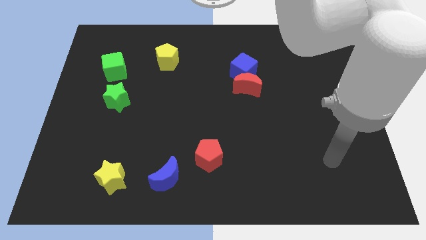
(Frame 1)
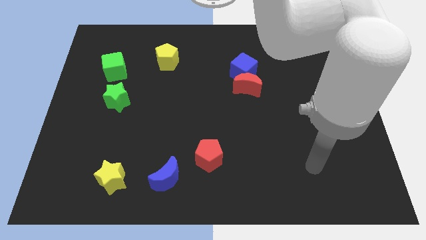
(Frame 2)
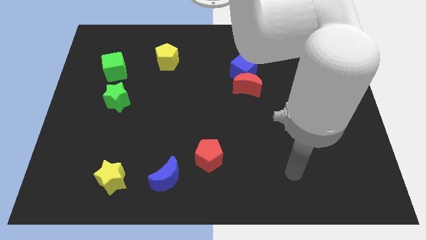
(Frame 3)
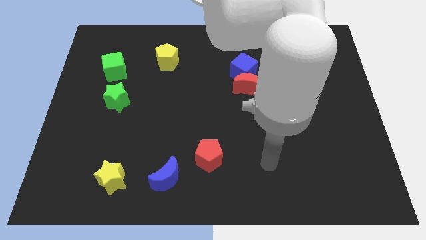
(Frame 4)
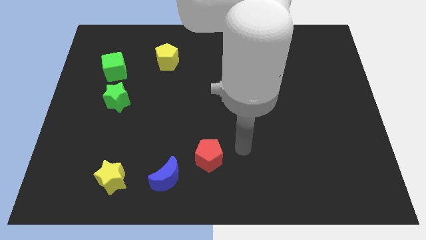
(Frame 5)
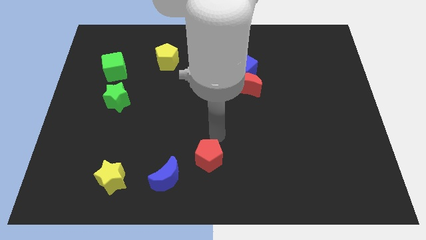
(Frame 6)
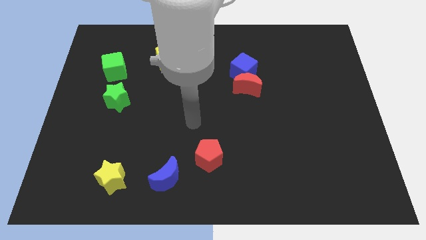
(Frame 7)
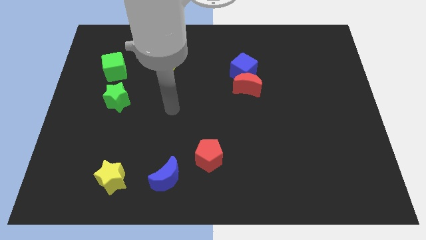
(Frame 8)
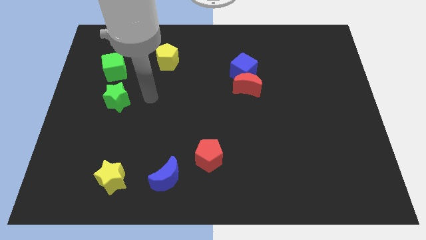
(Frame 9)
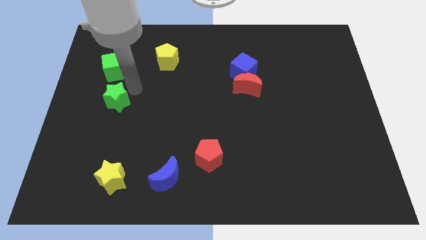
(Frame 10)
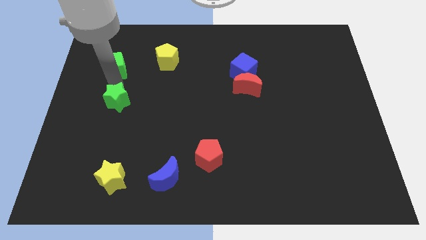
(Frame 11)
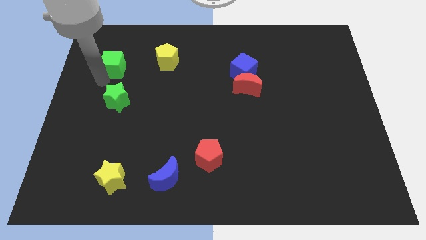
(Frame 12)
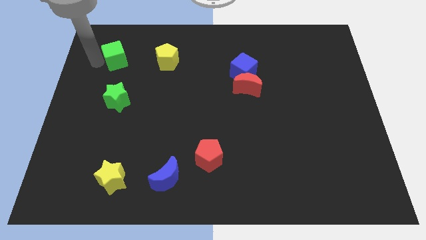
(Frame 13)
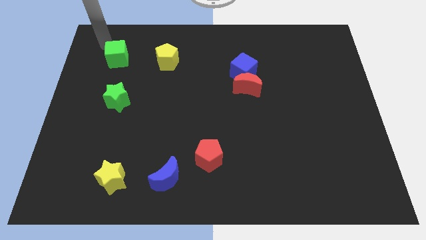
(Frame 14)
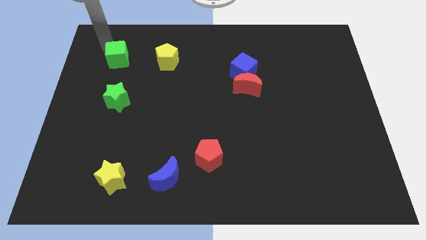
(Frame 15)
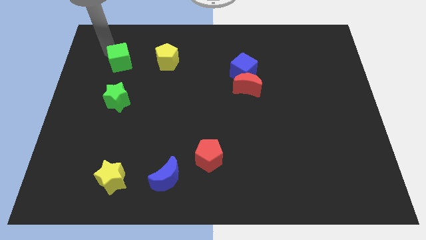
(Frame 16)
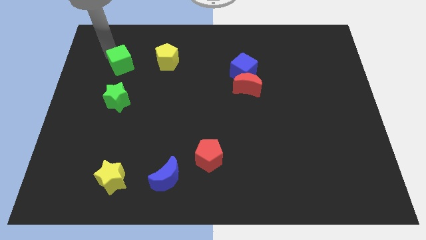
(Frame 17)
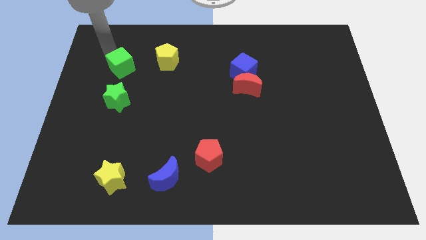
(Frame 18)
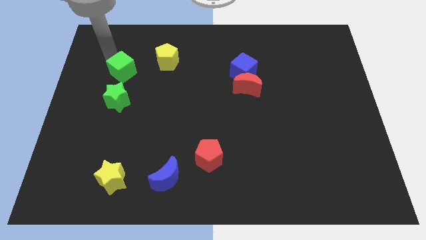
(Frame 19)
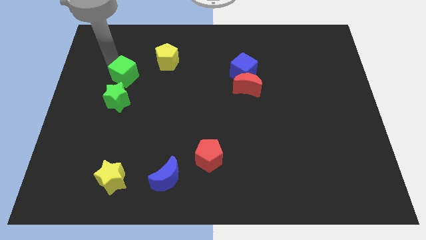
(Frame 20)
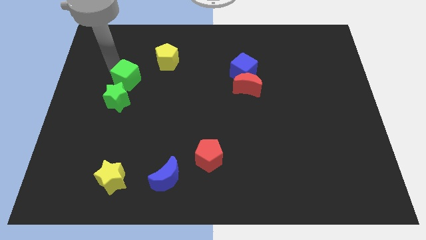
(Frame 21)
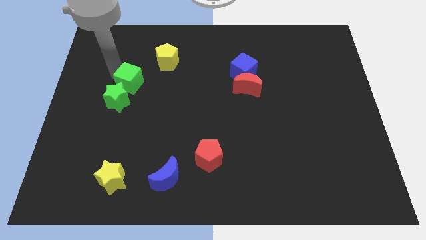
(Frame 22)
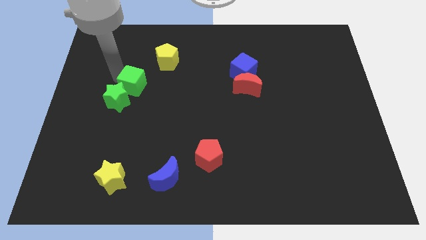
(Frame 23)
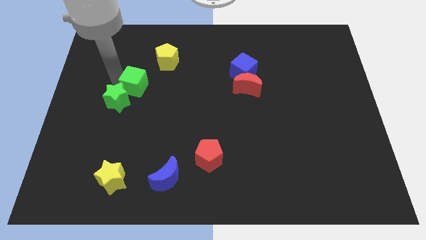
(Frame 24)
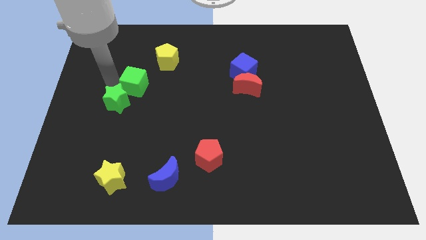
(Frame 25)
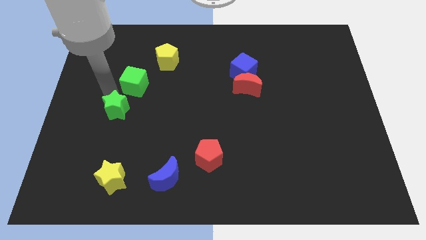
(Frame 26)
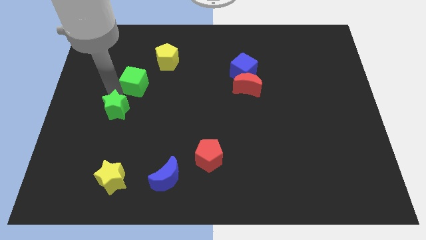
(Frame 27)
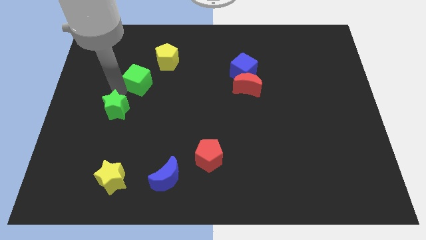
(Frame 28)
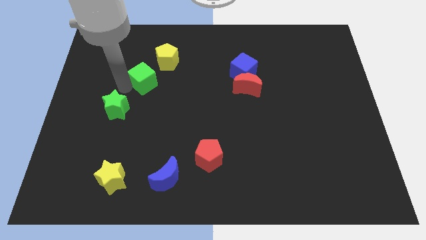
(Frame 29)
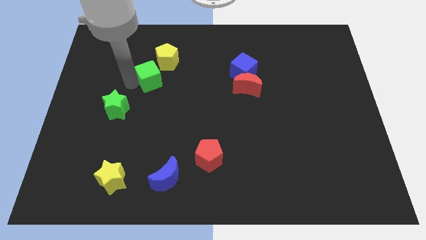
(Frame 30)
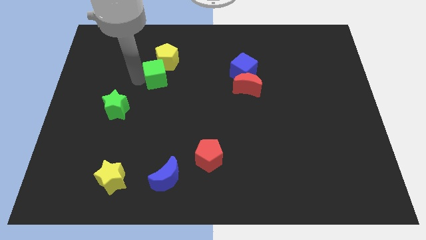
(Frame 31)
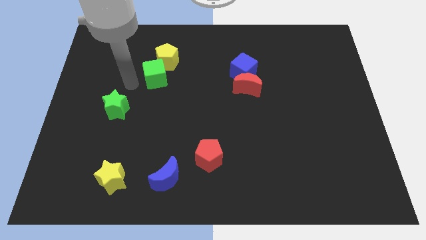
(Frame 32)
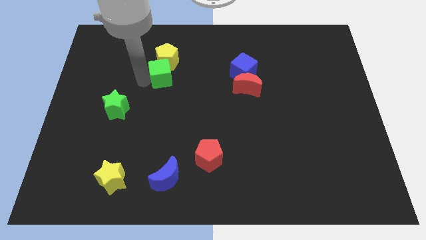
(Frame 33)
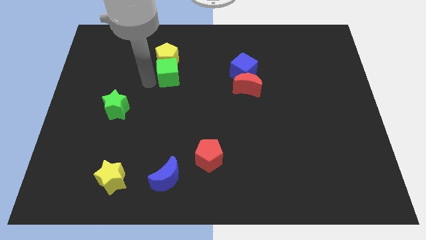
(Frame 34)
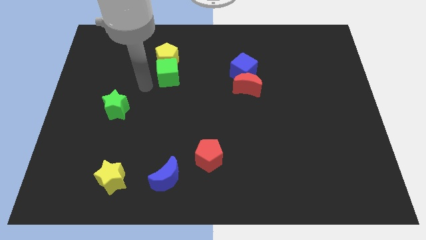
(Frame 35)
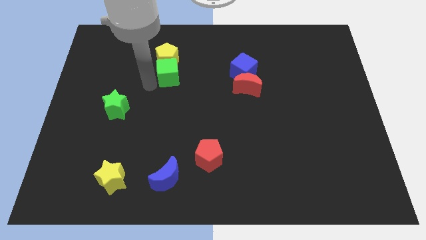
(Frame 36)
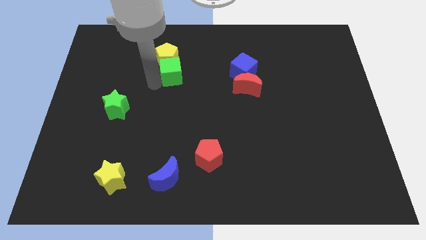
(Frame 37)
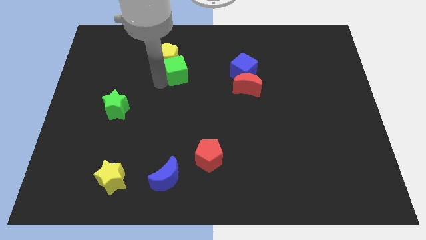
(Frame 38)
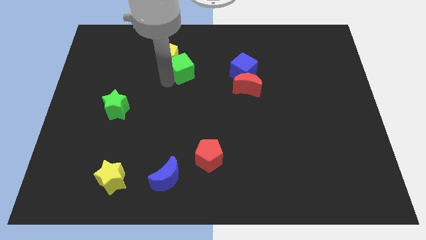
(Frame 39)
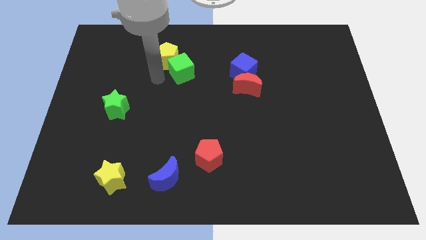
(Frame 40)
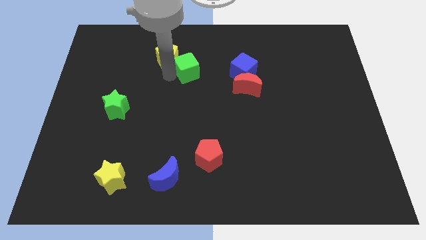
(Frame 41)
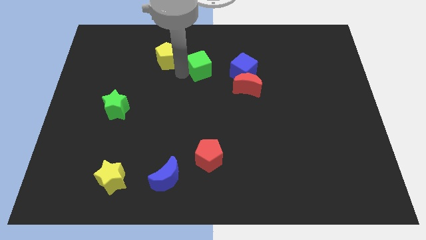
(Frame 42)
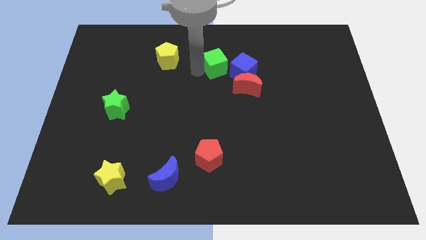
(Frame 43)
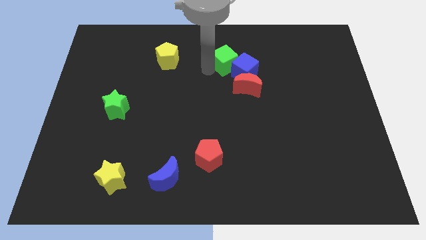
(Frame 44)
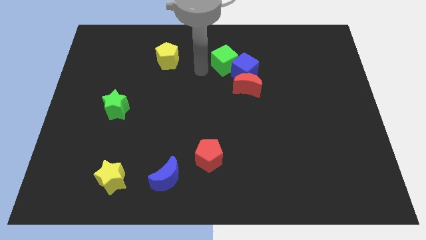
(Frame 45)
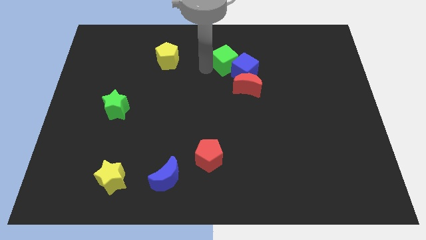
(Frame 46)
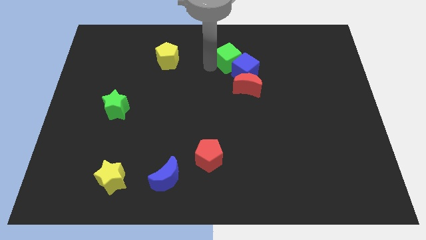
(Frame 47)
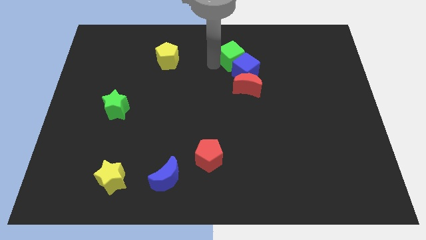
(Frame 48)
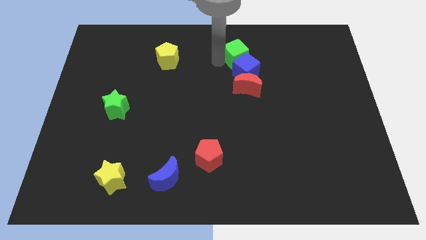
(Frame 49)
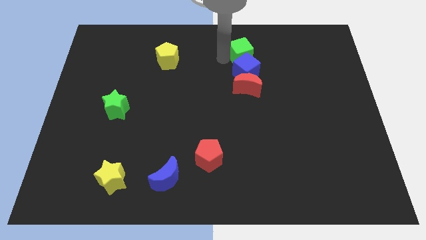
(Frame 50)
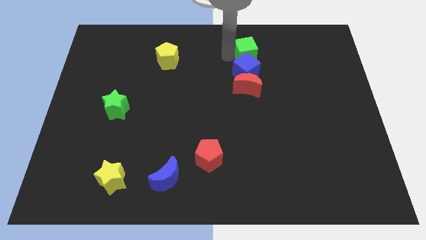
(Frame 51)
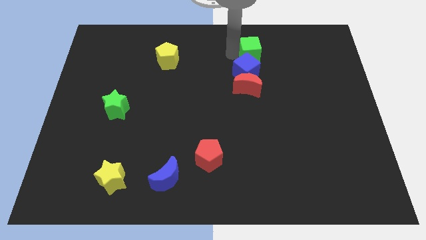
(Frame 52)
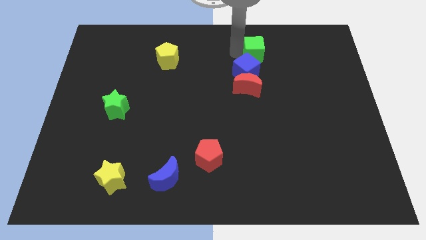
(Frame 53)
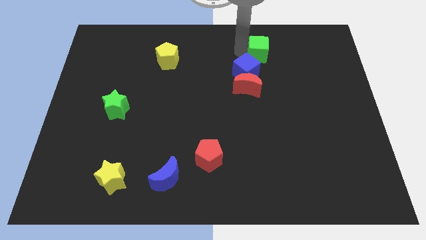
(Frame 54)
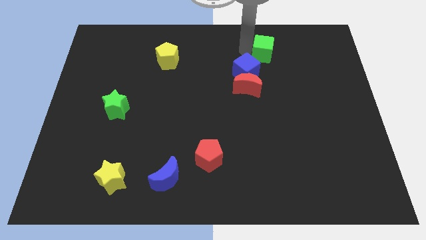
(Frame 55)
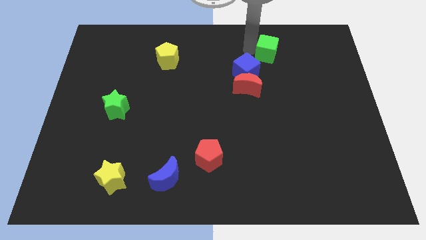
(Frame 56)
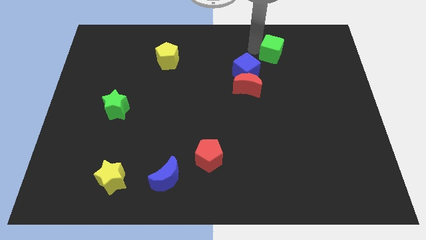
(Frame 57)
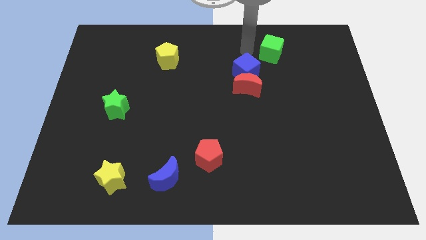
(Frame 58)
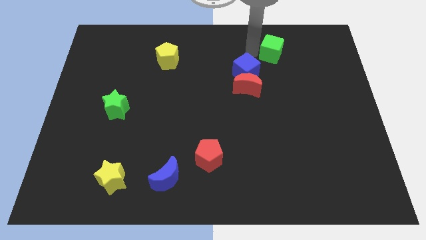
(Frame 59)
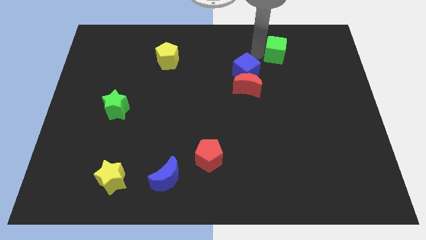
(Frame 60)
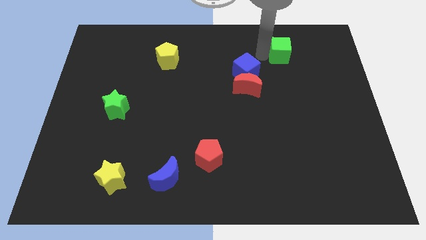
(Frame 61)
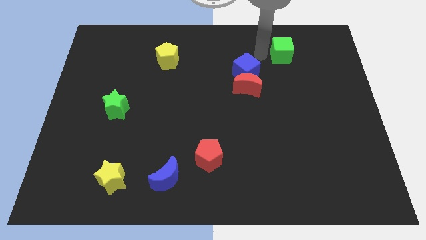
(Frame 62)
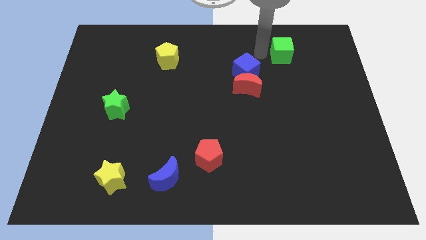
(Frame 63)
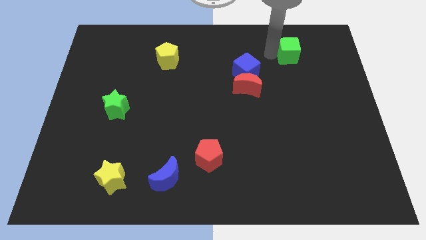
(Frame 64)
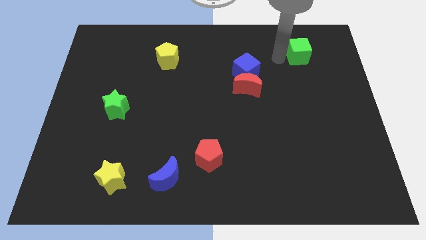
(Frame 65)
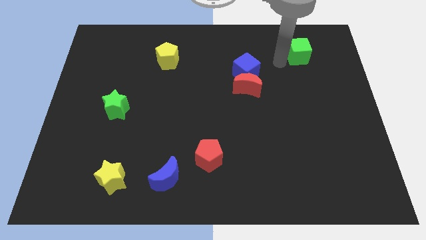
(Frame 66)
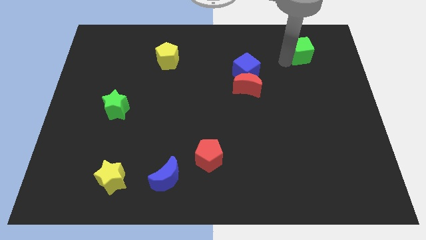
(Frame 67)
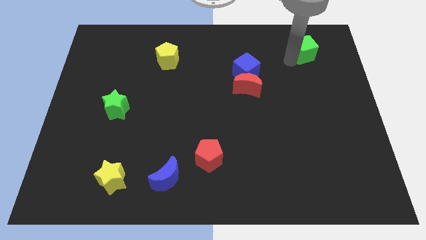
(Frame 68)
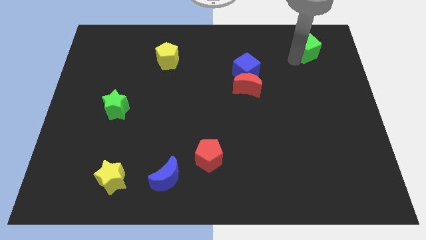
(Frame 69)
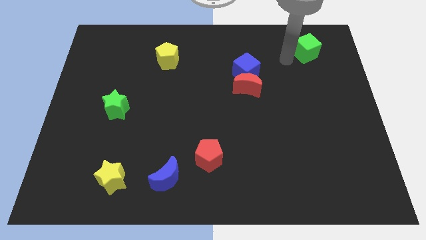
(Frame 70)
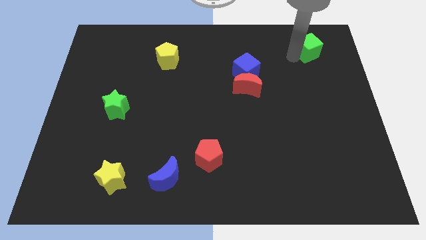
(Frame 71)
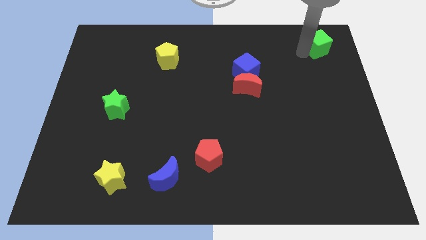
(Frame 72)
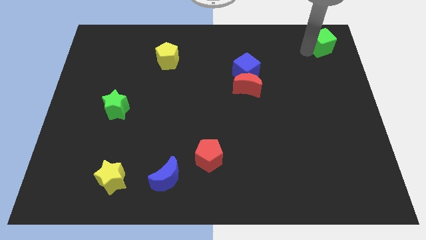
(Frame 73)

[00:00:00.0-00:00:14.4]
put the green cube to the top right

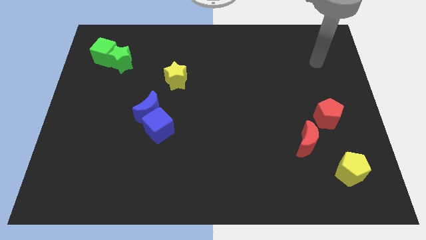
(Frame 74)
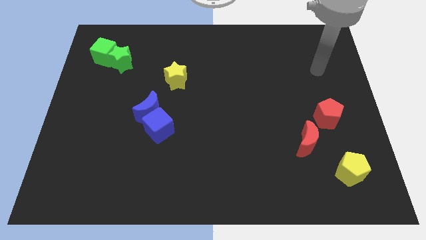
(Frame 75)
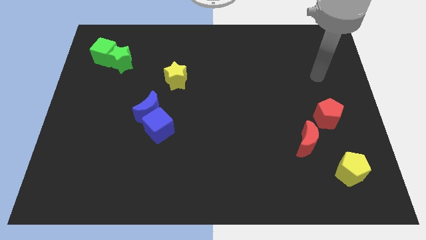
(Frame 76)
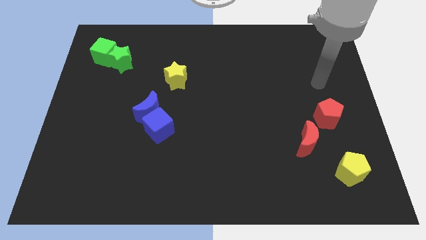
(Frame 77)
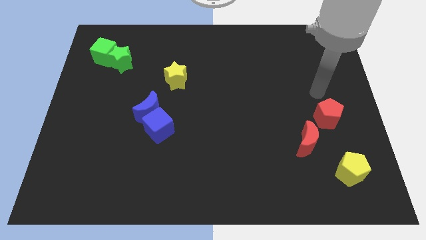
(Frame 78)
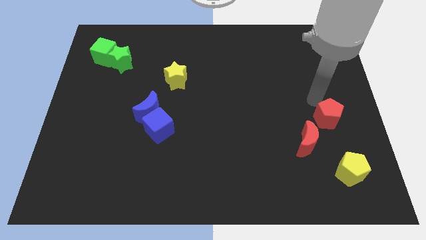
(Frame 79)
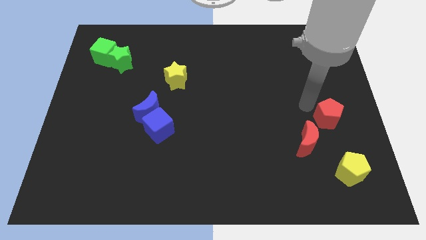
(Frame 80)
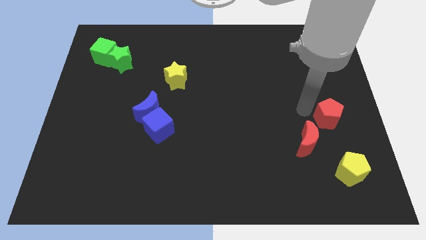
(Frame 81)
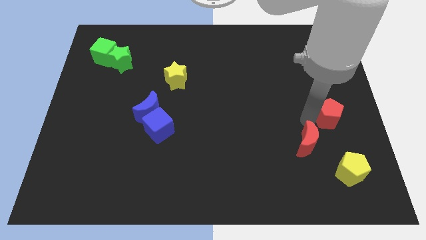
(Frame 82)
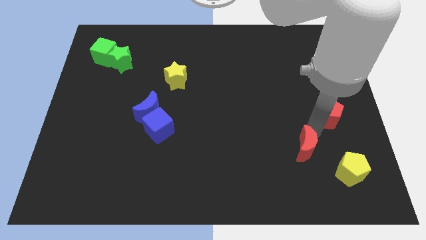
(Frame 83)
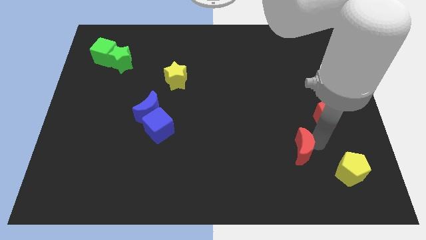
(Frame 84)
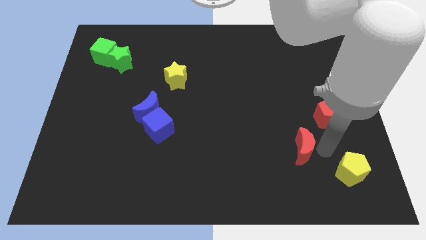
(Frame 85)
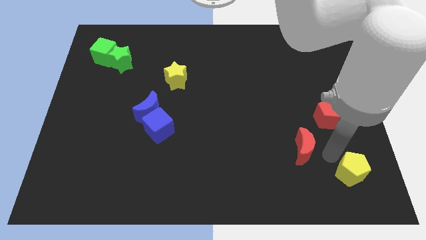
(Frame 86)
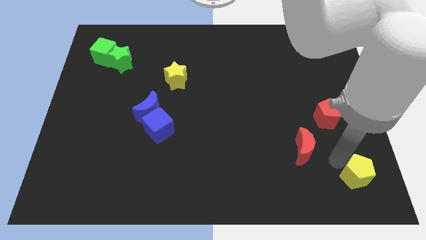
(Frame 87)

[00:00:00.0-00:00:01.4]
move the yellow pentagon to the bottom right of the board
